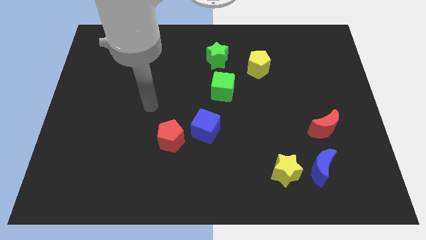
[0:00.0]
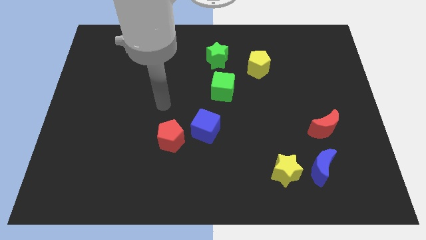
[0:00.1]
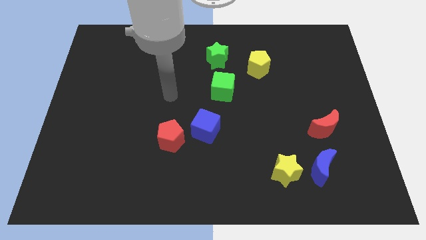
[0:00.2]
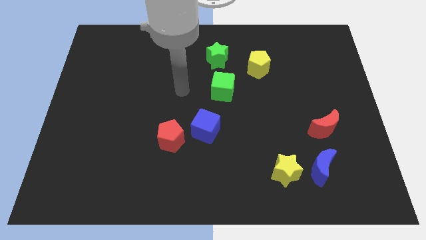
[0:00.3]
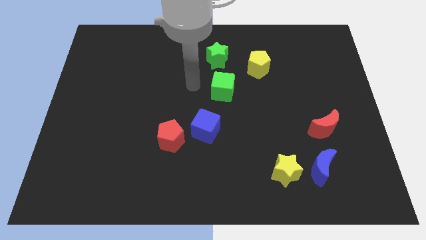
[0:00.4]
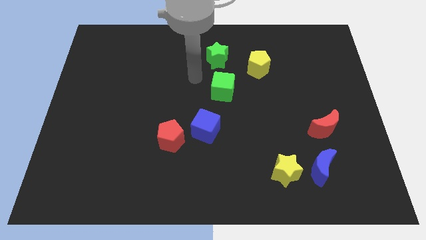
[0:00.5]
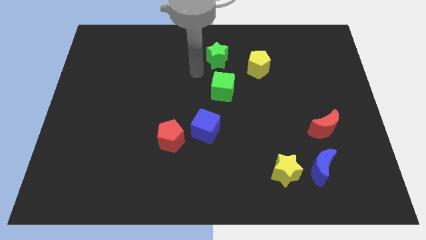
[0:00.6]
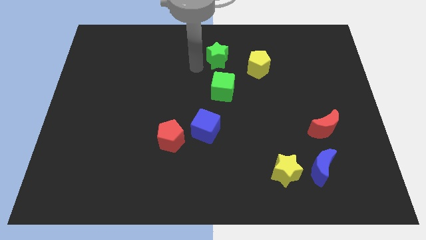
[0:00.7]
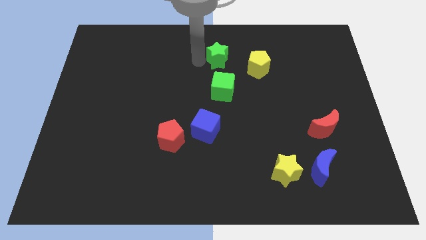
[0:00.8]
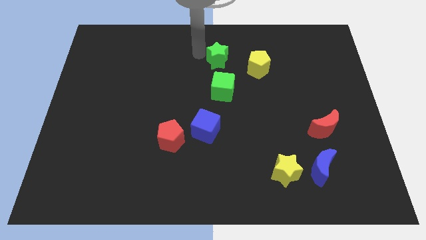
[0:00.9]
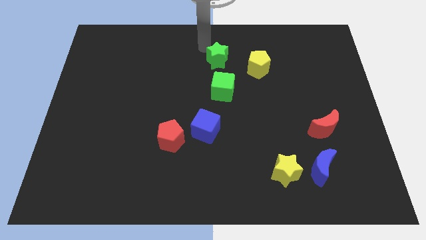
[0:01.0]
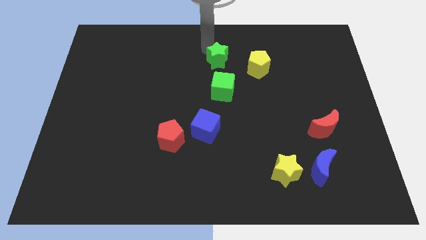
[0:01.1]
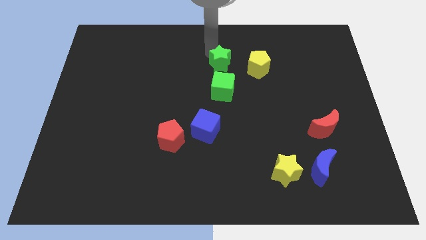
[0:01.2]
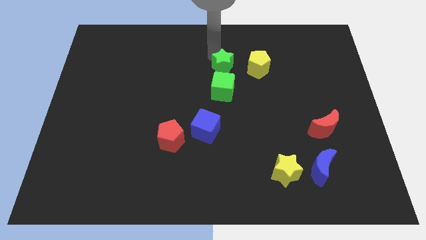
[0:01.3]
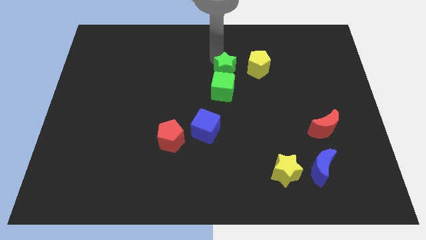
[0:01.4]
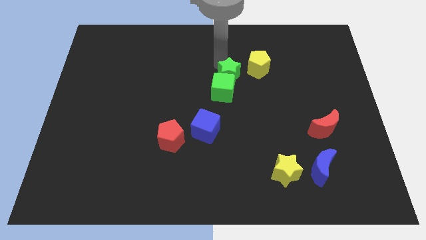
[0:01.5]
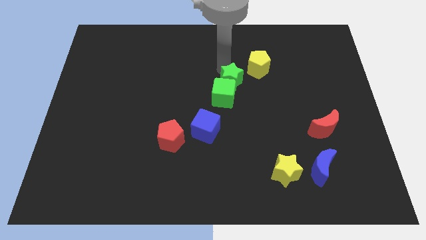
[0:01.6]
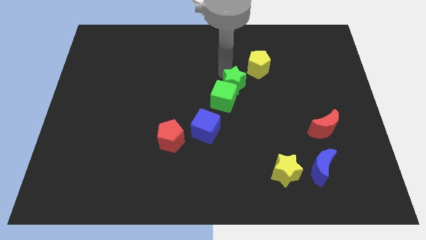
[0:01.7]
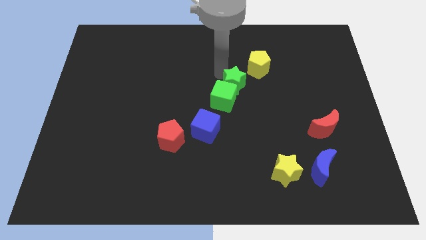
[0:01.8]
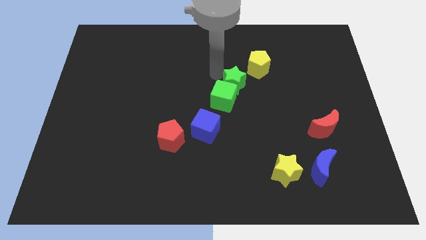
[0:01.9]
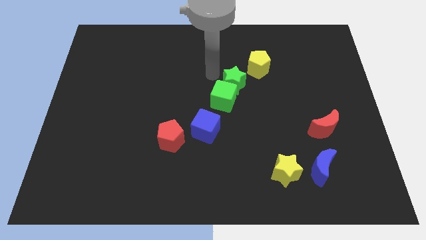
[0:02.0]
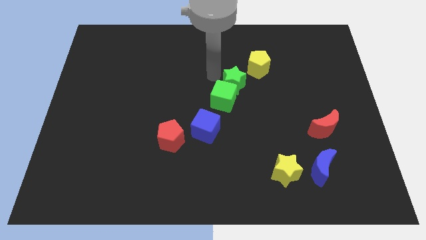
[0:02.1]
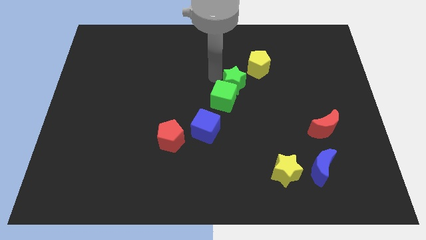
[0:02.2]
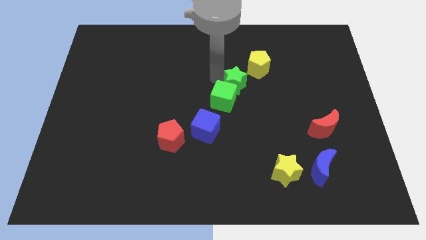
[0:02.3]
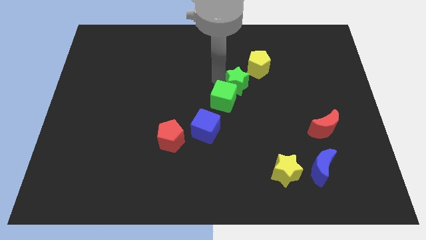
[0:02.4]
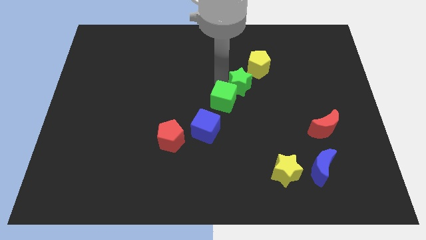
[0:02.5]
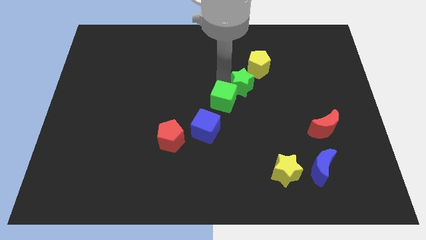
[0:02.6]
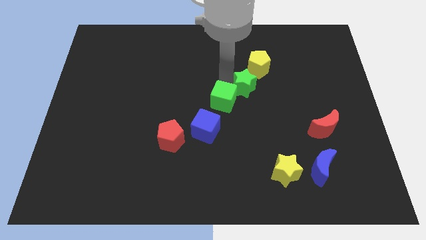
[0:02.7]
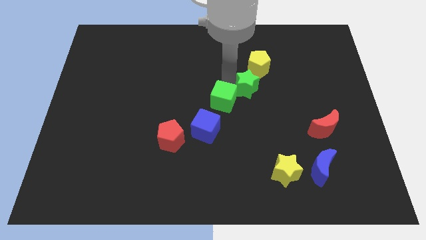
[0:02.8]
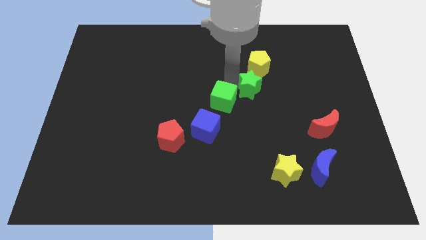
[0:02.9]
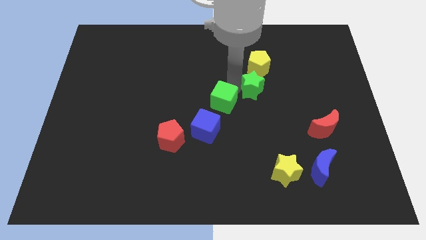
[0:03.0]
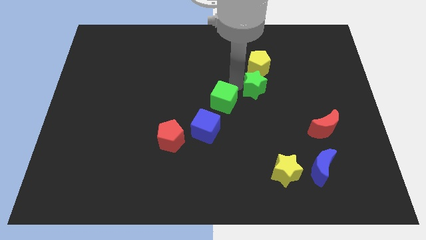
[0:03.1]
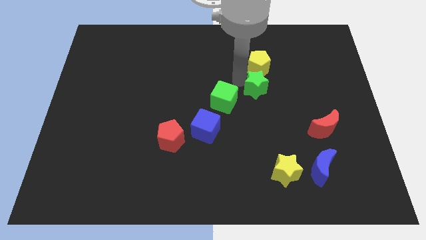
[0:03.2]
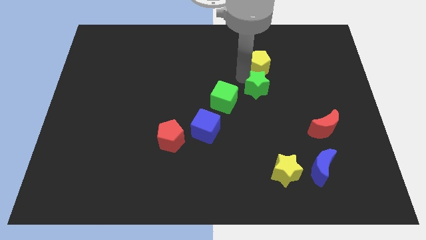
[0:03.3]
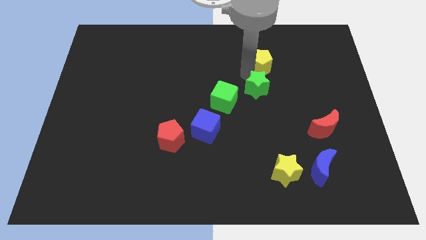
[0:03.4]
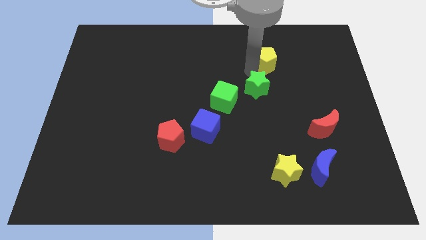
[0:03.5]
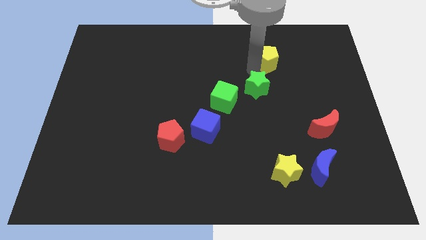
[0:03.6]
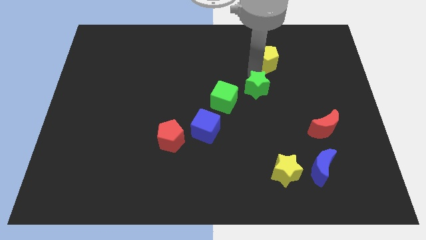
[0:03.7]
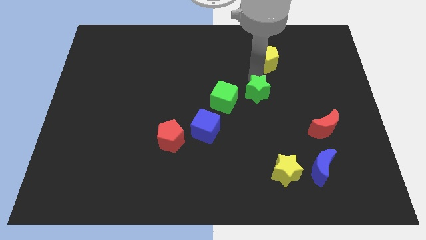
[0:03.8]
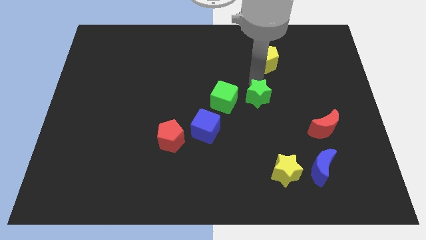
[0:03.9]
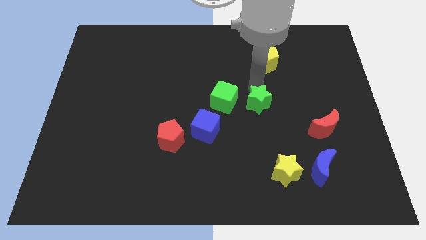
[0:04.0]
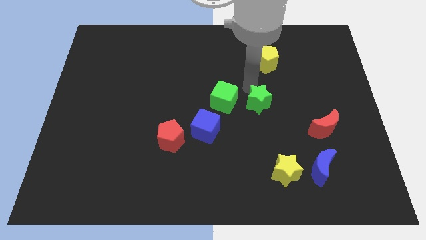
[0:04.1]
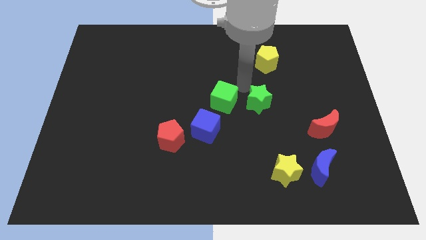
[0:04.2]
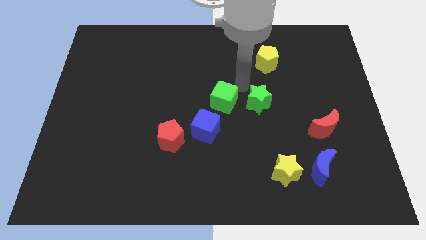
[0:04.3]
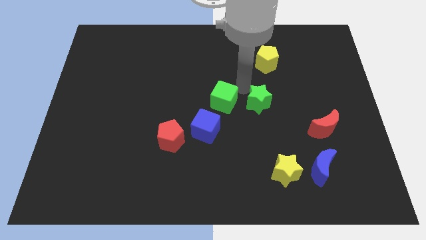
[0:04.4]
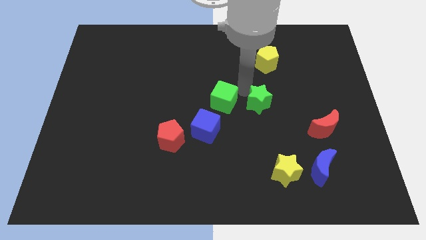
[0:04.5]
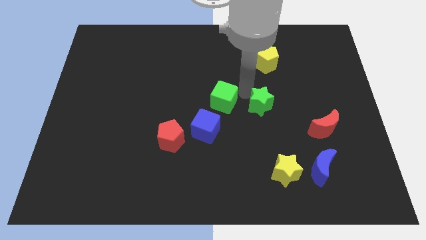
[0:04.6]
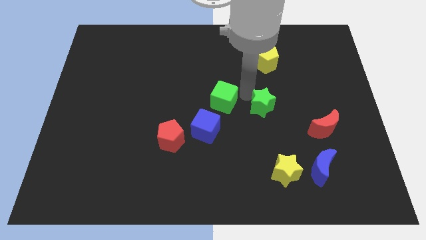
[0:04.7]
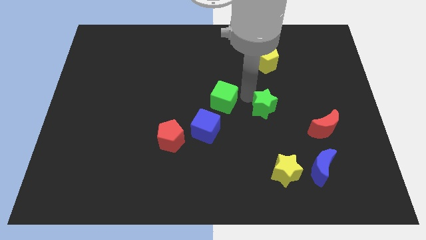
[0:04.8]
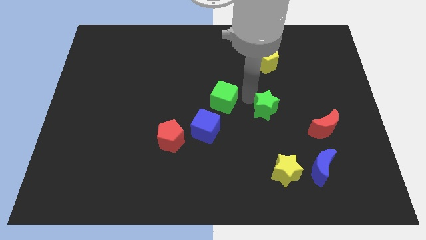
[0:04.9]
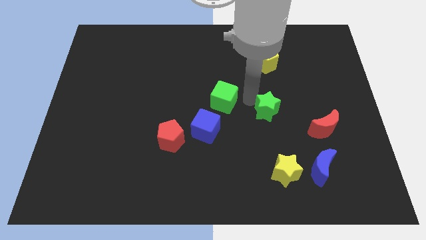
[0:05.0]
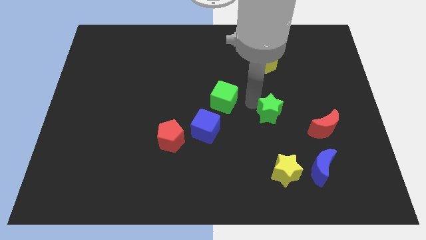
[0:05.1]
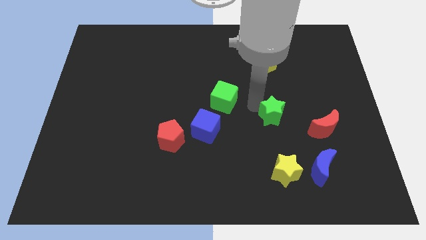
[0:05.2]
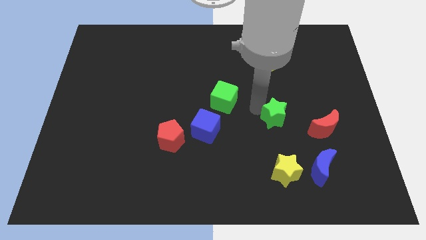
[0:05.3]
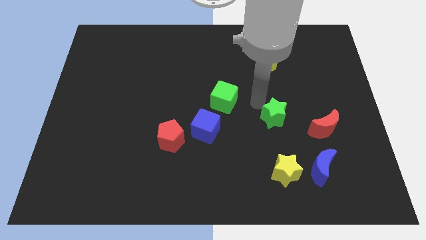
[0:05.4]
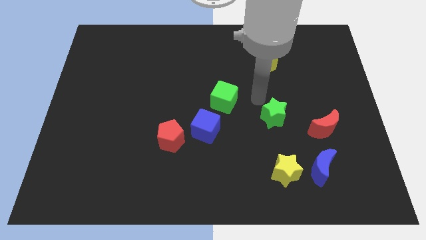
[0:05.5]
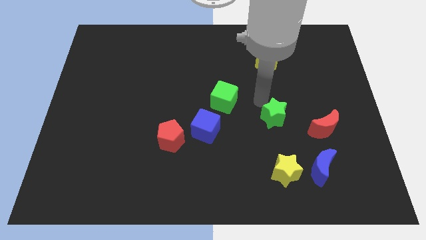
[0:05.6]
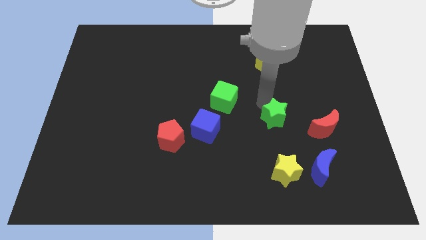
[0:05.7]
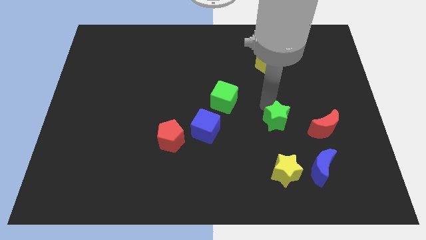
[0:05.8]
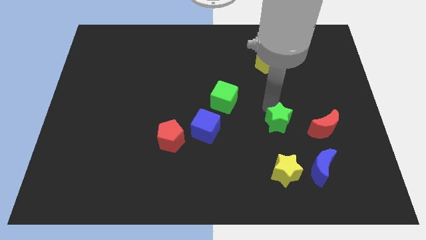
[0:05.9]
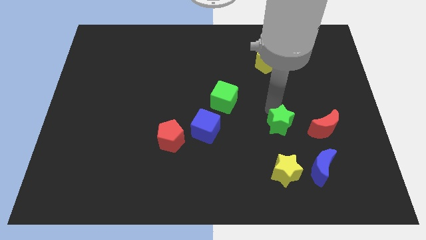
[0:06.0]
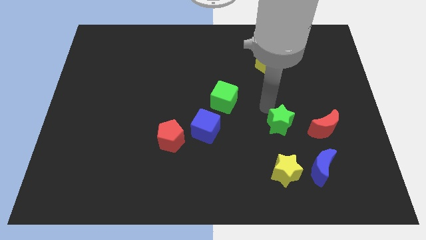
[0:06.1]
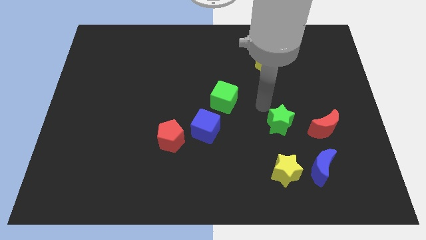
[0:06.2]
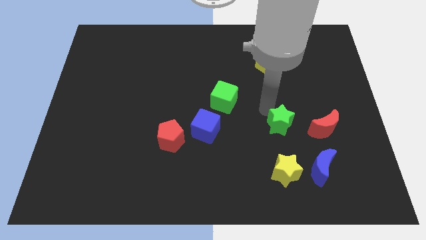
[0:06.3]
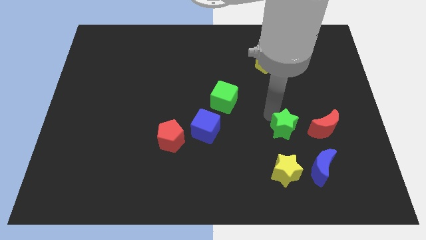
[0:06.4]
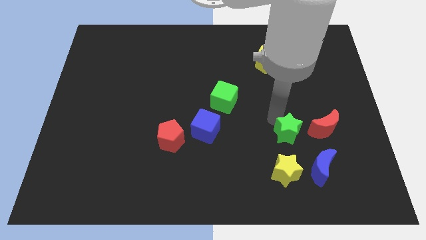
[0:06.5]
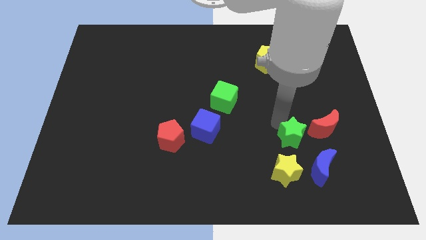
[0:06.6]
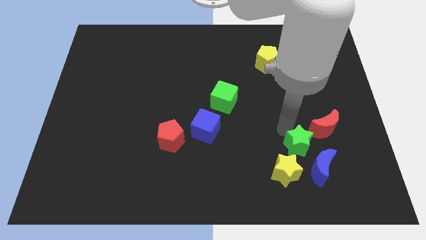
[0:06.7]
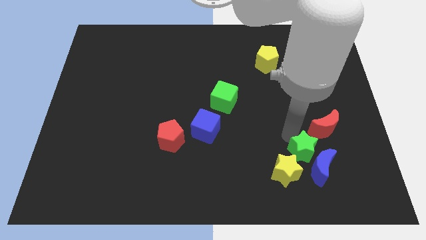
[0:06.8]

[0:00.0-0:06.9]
push the green star towards the blue moon
